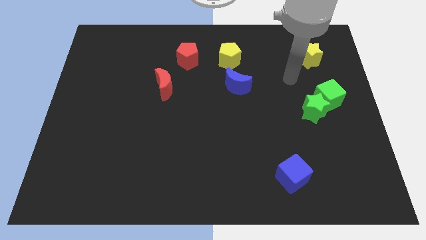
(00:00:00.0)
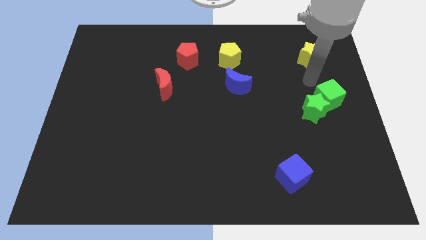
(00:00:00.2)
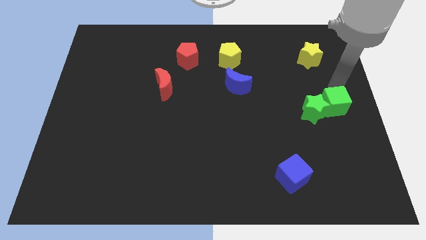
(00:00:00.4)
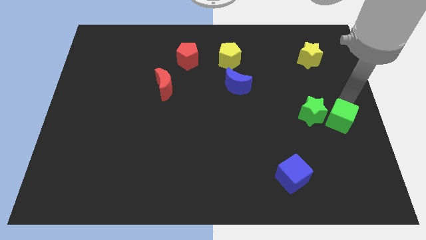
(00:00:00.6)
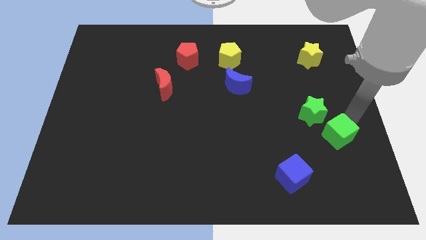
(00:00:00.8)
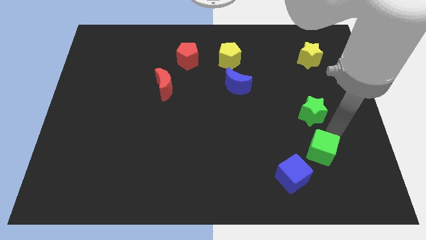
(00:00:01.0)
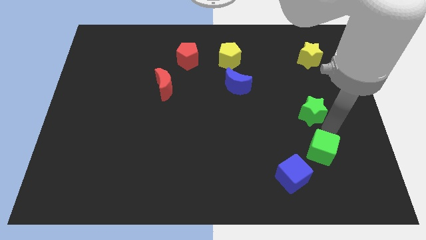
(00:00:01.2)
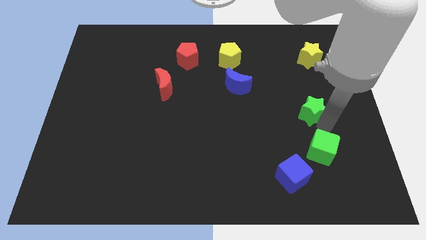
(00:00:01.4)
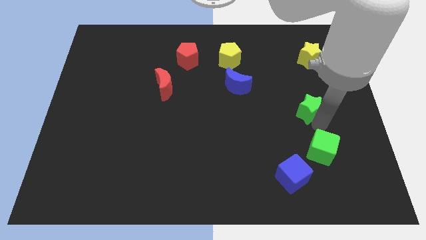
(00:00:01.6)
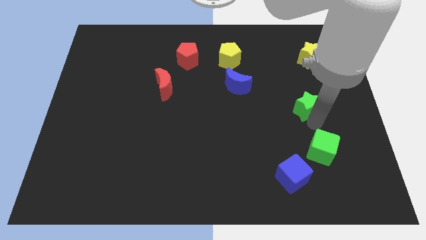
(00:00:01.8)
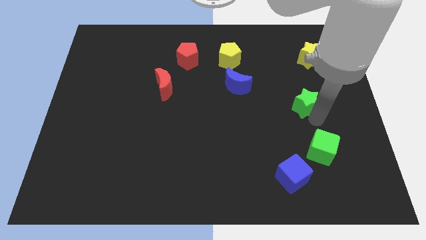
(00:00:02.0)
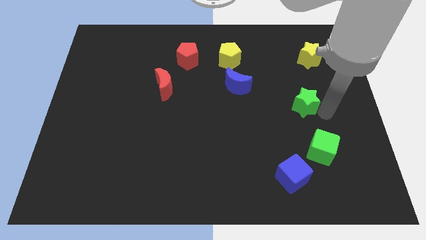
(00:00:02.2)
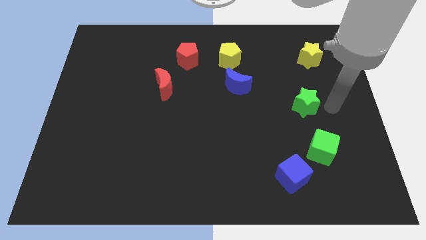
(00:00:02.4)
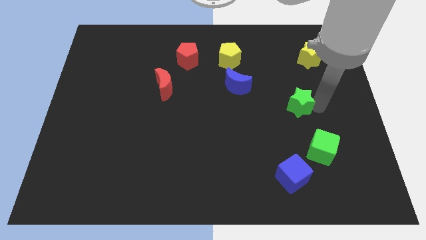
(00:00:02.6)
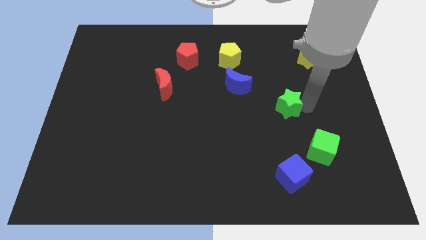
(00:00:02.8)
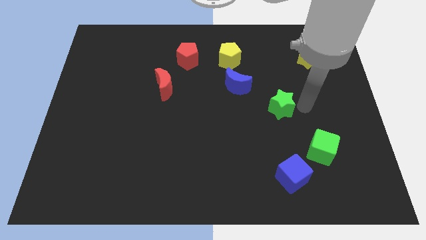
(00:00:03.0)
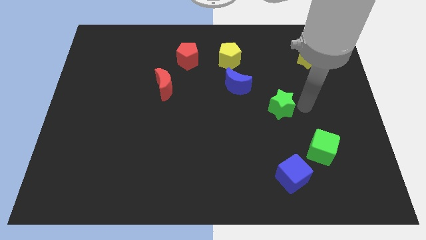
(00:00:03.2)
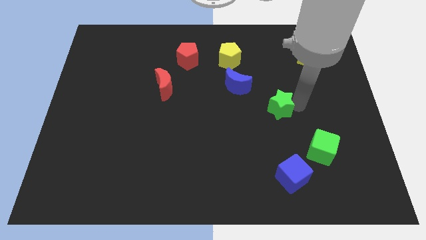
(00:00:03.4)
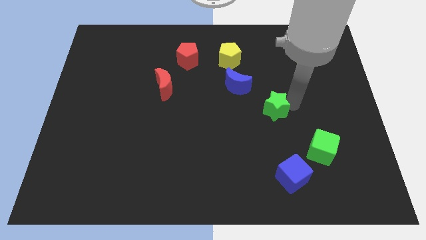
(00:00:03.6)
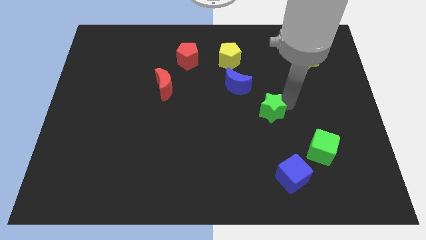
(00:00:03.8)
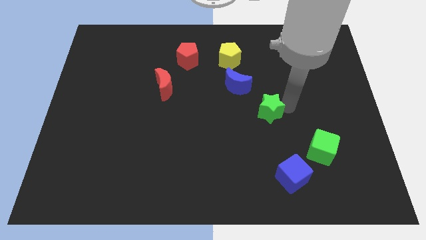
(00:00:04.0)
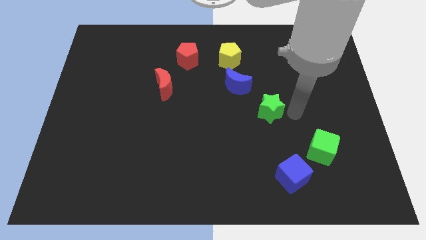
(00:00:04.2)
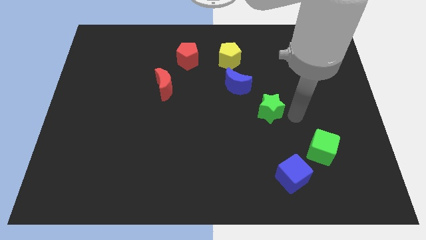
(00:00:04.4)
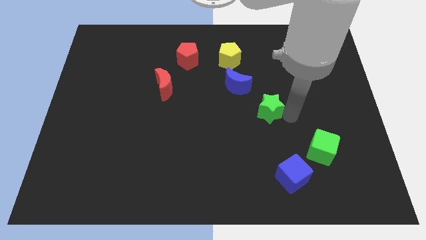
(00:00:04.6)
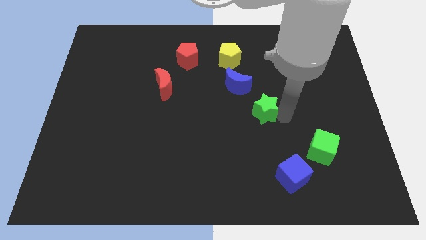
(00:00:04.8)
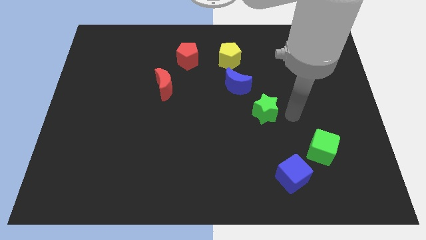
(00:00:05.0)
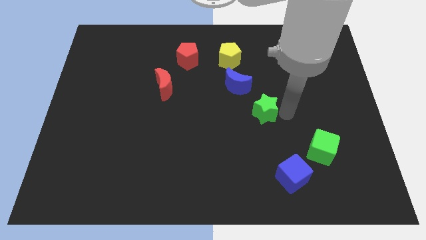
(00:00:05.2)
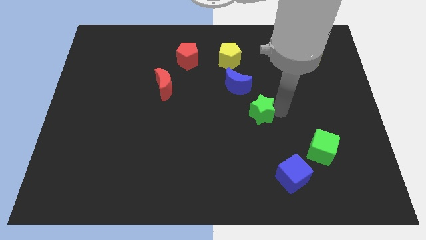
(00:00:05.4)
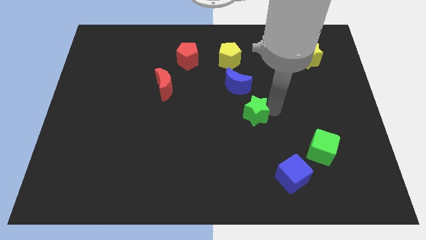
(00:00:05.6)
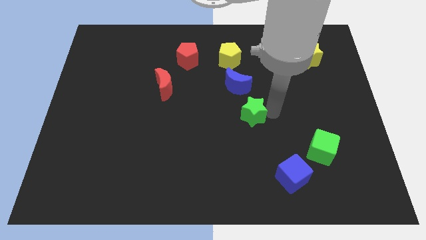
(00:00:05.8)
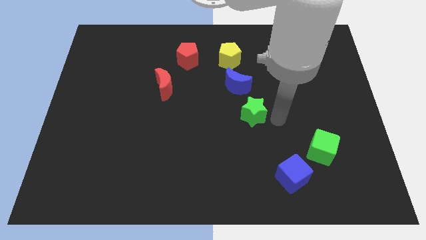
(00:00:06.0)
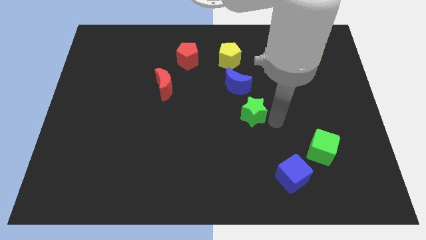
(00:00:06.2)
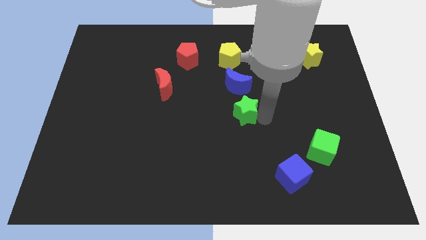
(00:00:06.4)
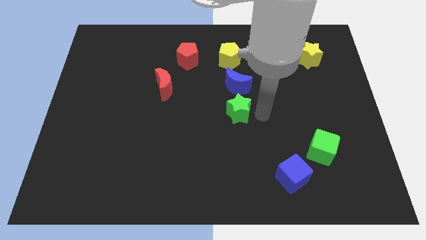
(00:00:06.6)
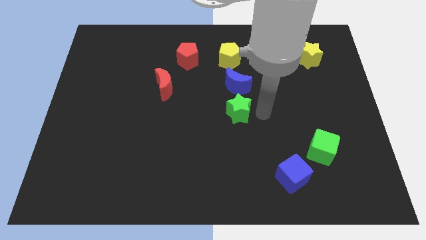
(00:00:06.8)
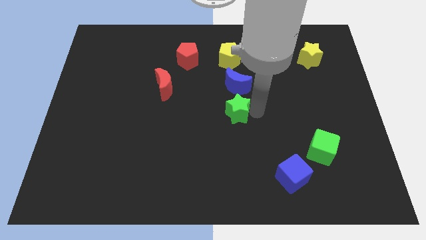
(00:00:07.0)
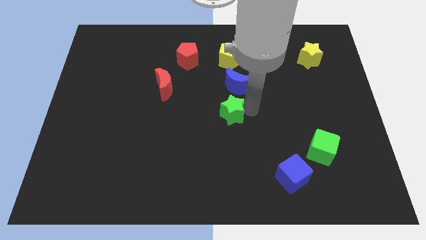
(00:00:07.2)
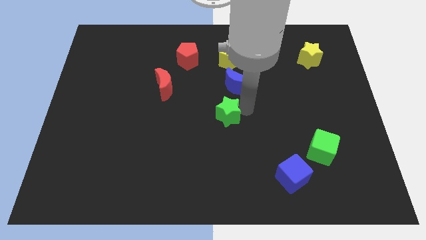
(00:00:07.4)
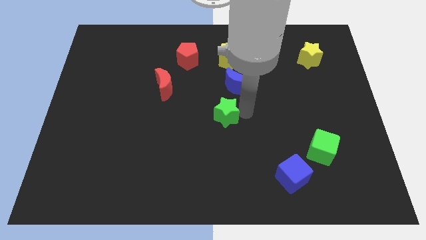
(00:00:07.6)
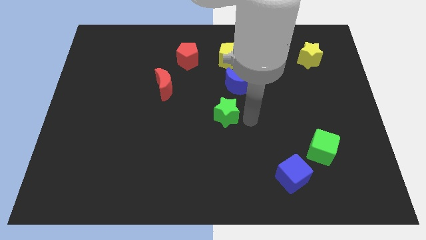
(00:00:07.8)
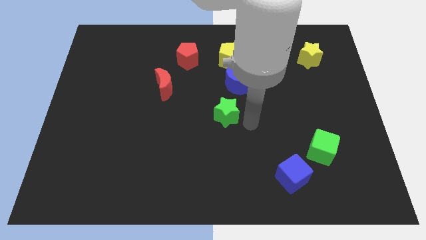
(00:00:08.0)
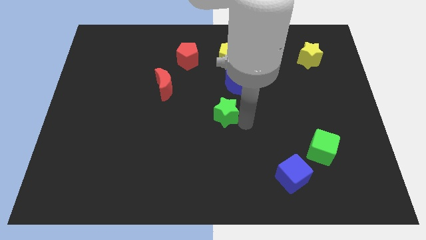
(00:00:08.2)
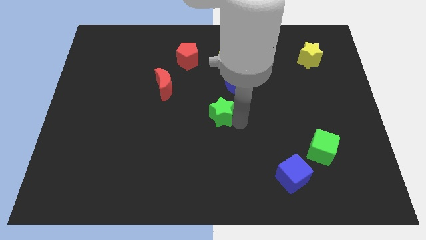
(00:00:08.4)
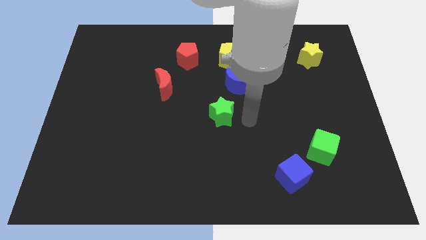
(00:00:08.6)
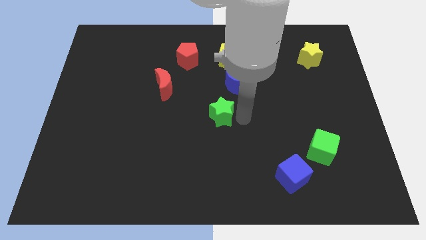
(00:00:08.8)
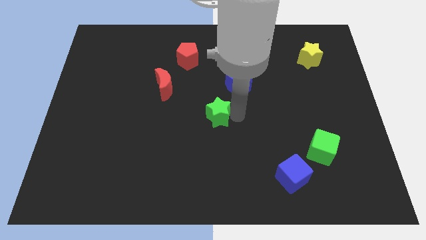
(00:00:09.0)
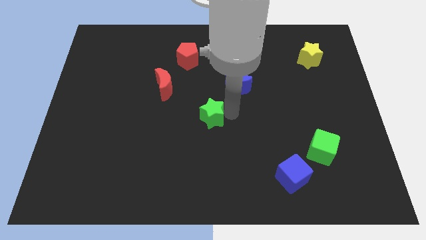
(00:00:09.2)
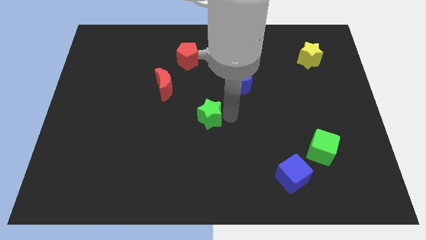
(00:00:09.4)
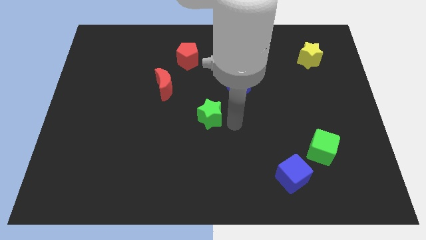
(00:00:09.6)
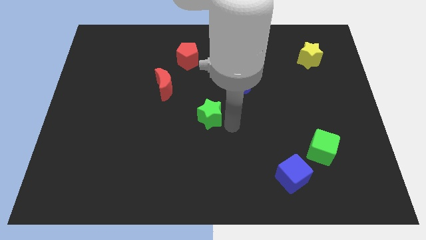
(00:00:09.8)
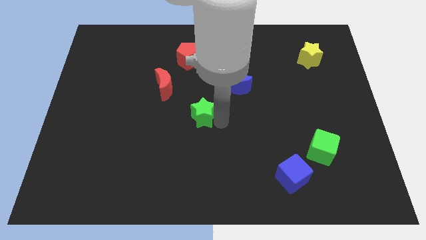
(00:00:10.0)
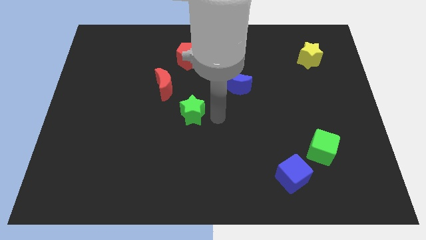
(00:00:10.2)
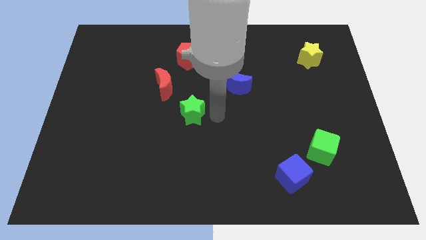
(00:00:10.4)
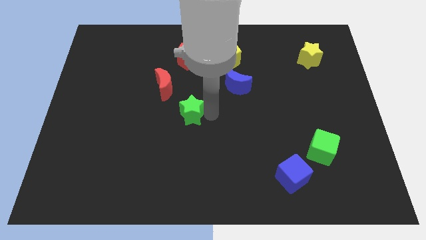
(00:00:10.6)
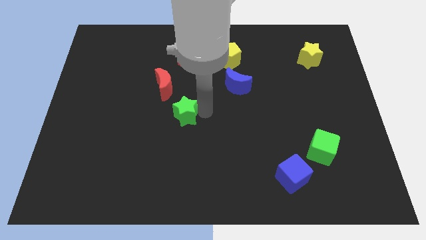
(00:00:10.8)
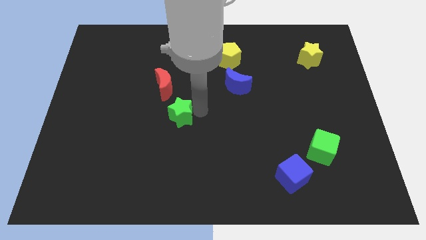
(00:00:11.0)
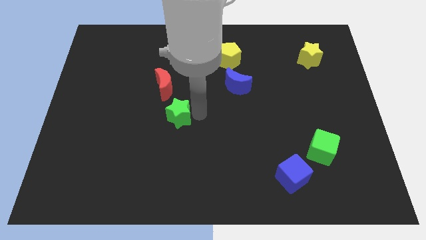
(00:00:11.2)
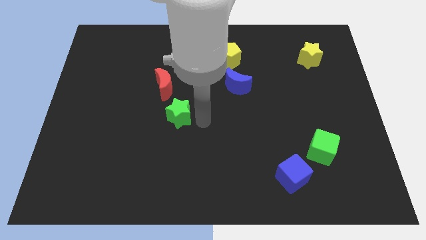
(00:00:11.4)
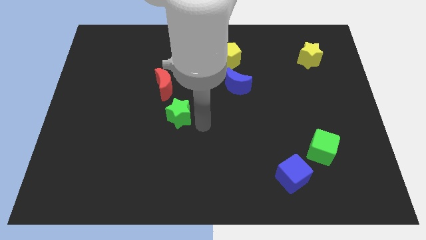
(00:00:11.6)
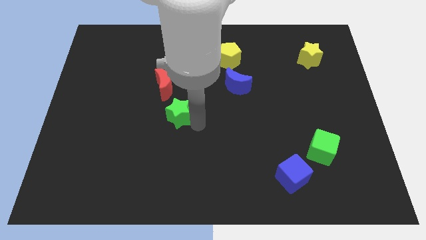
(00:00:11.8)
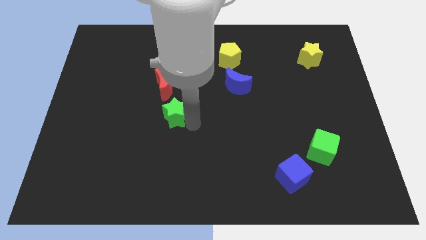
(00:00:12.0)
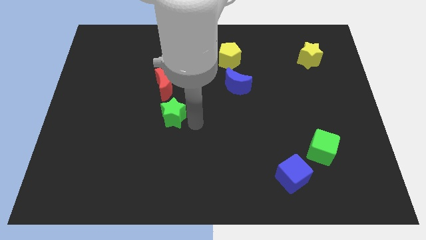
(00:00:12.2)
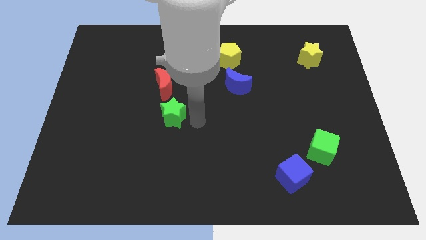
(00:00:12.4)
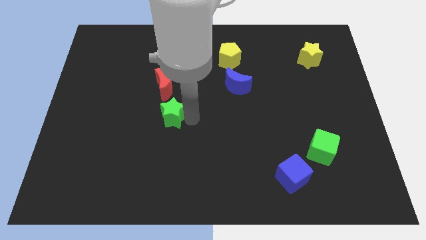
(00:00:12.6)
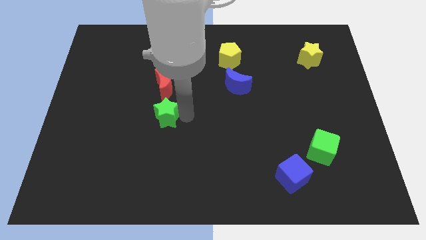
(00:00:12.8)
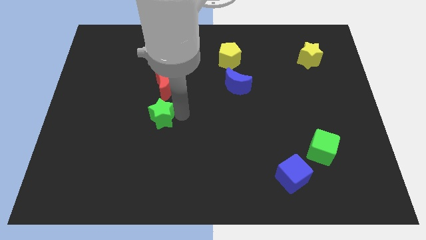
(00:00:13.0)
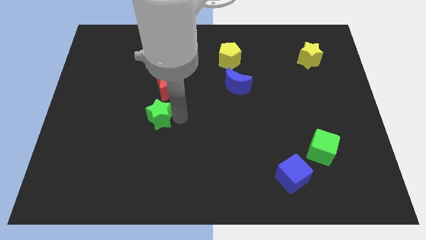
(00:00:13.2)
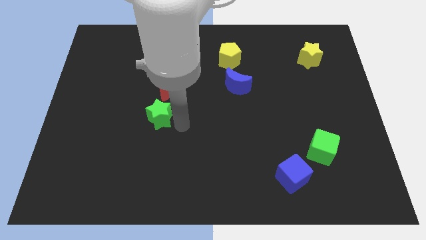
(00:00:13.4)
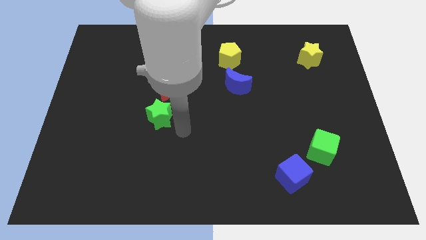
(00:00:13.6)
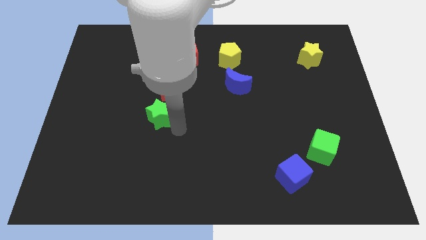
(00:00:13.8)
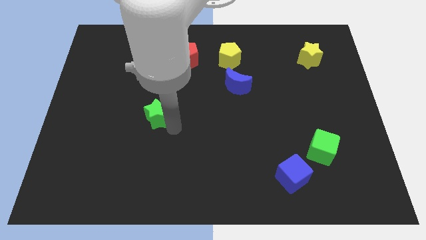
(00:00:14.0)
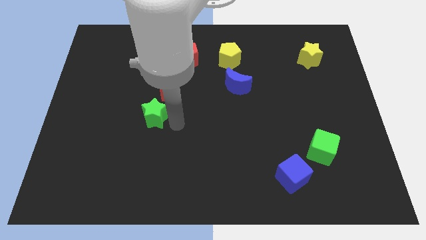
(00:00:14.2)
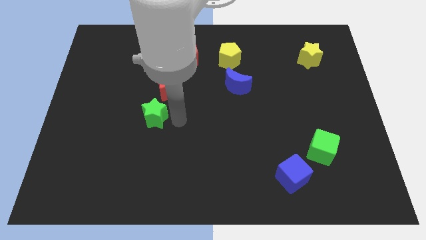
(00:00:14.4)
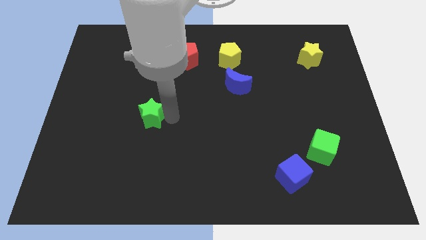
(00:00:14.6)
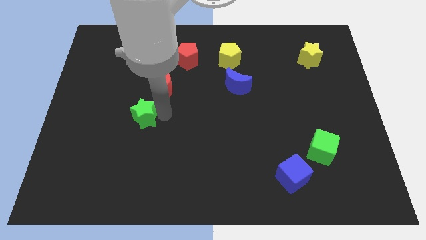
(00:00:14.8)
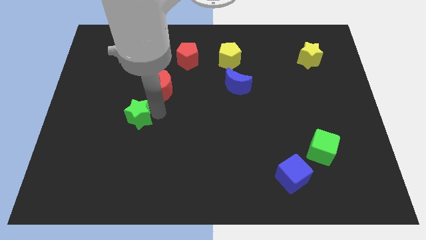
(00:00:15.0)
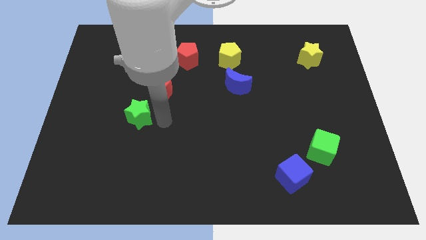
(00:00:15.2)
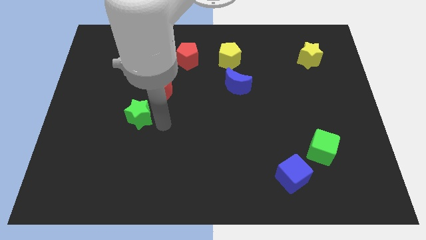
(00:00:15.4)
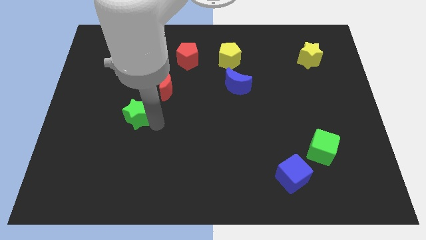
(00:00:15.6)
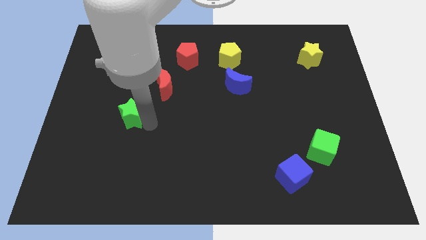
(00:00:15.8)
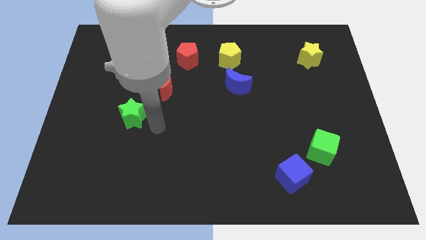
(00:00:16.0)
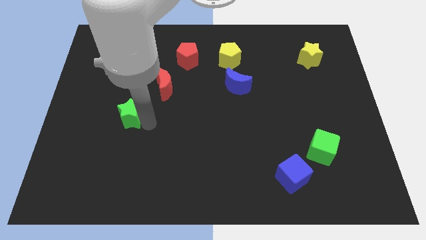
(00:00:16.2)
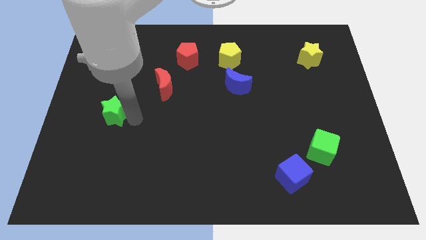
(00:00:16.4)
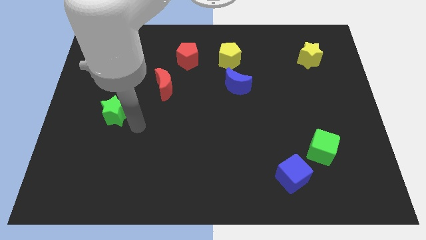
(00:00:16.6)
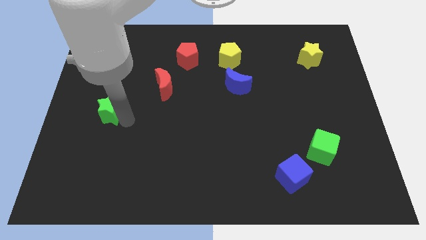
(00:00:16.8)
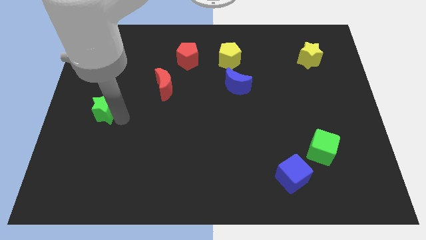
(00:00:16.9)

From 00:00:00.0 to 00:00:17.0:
slide the green star to the left side
